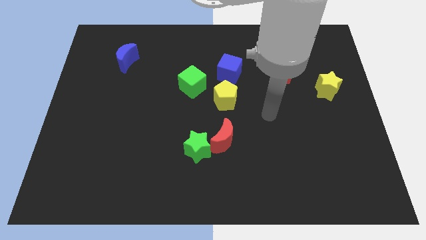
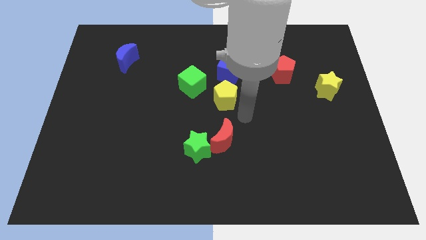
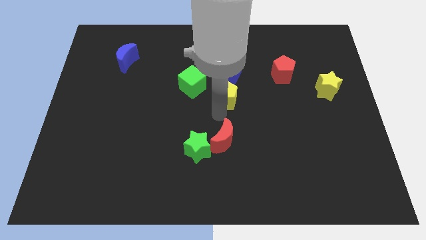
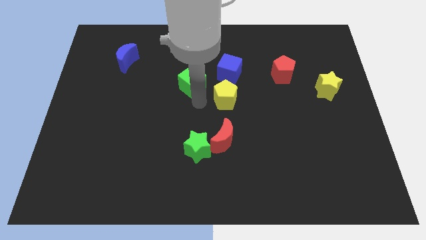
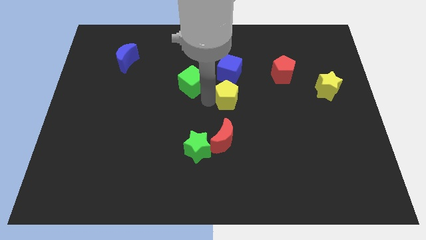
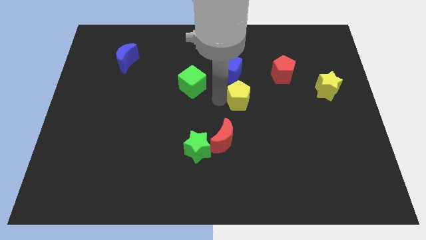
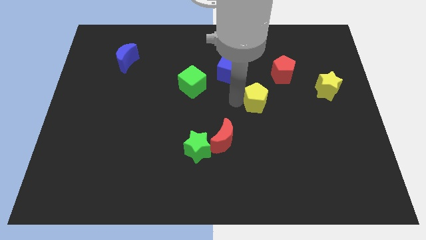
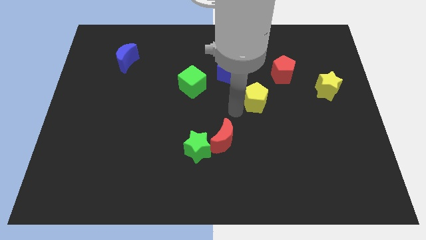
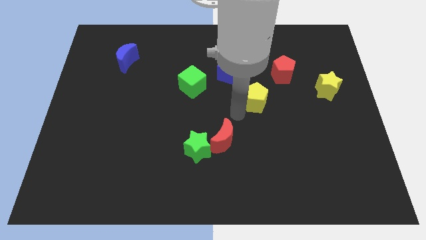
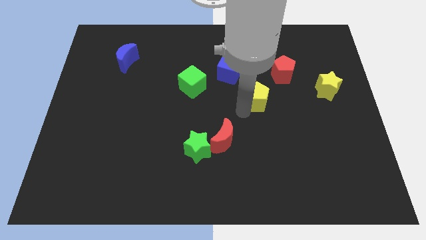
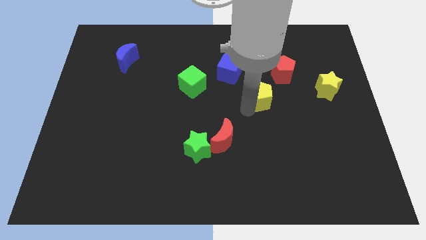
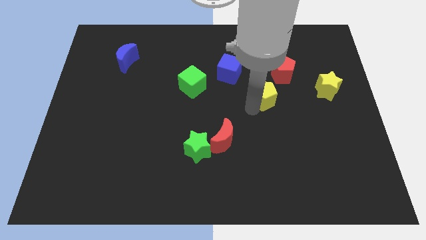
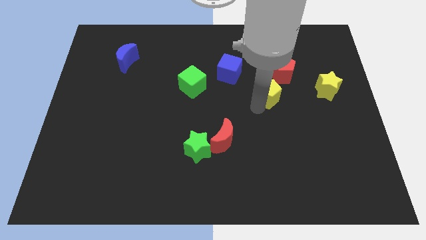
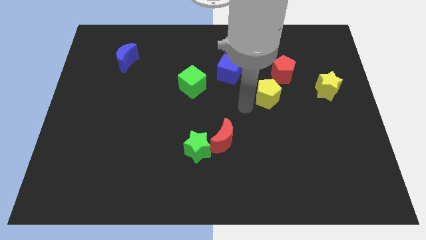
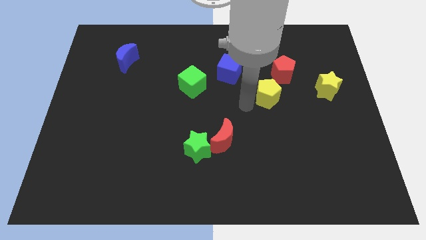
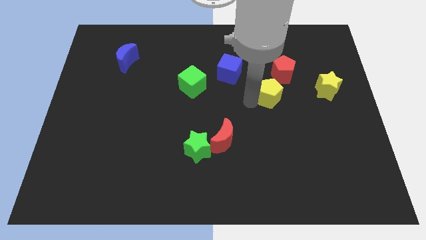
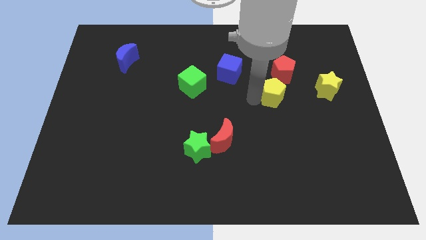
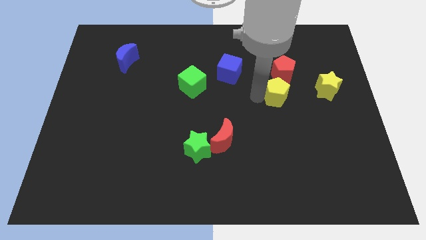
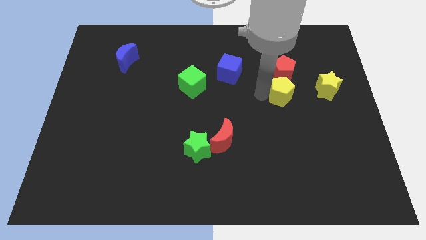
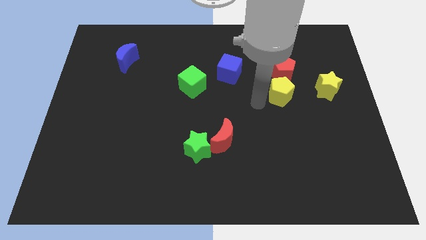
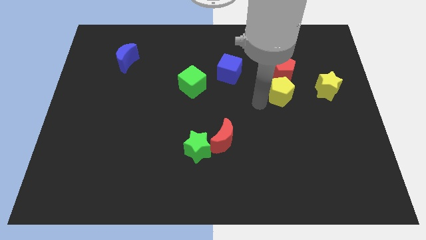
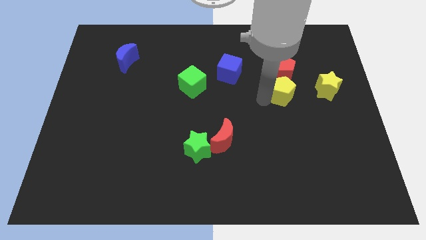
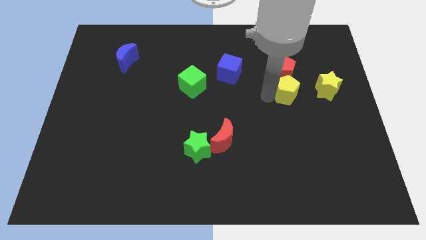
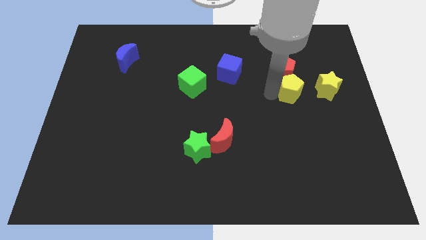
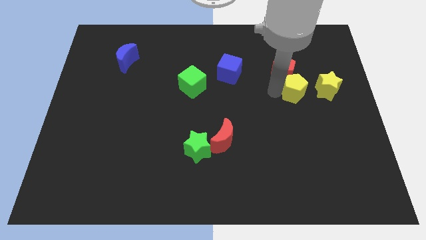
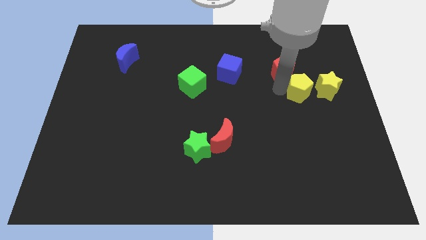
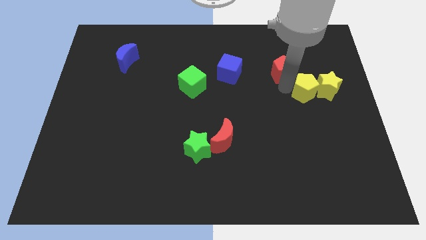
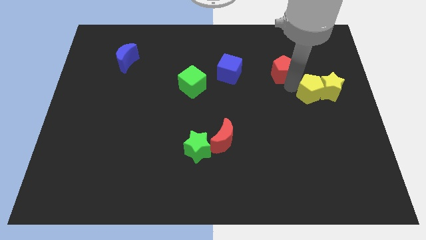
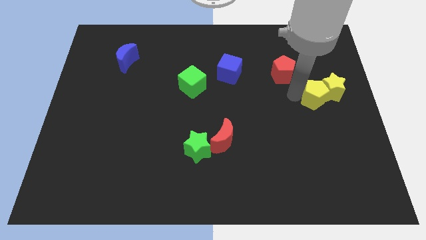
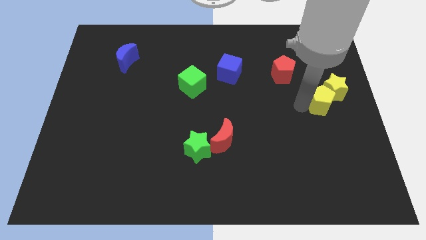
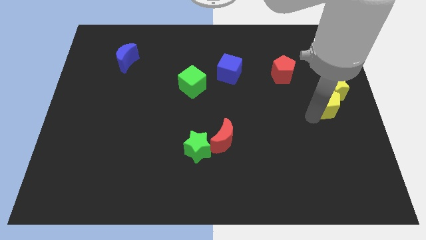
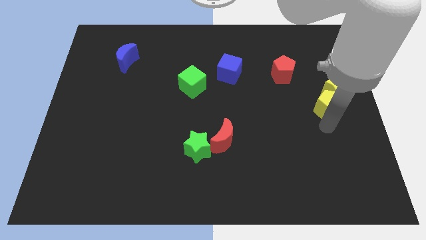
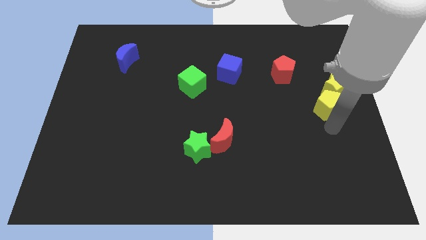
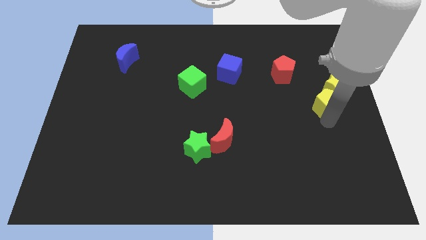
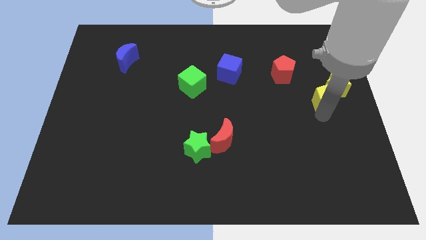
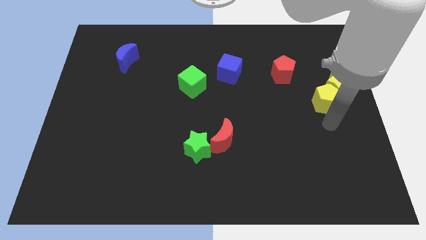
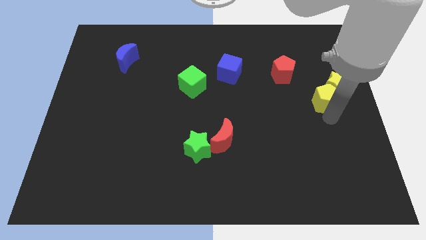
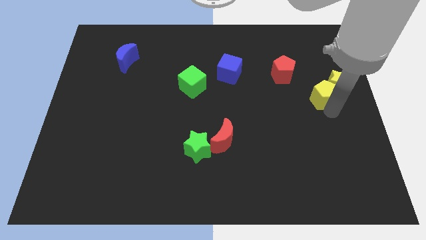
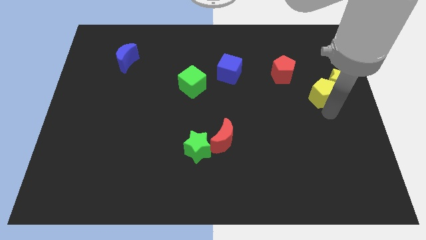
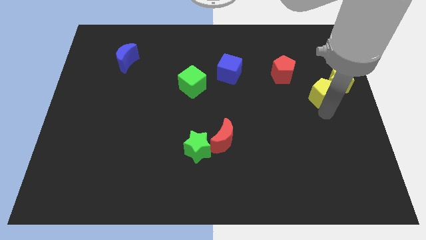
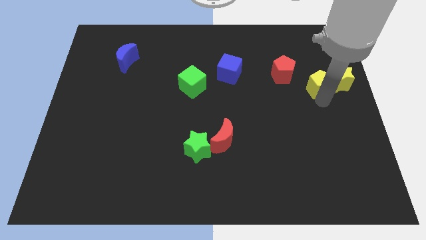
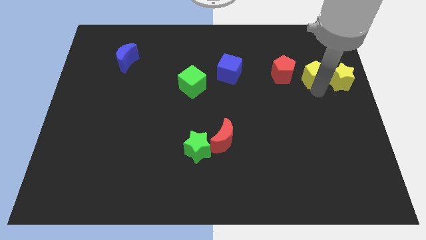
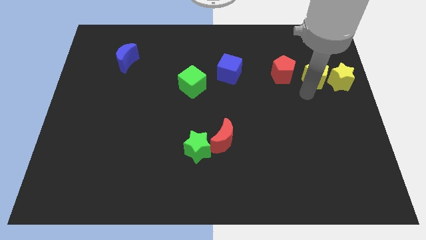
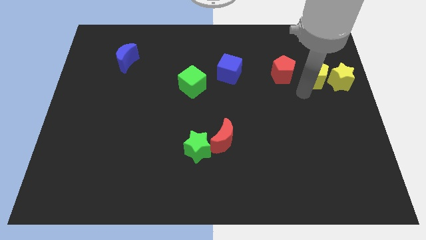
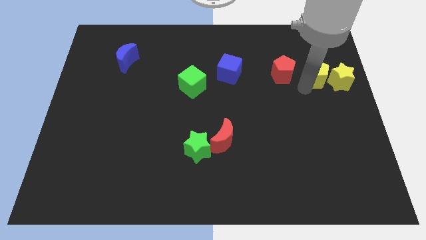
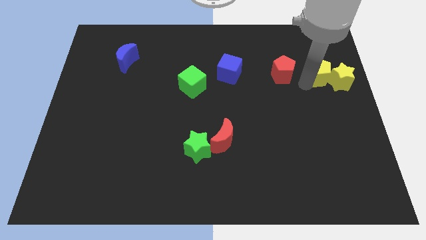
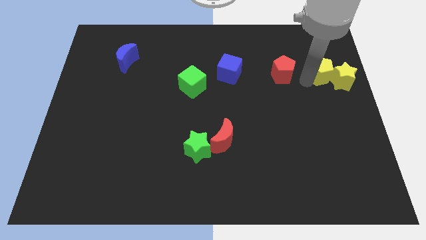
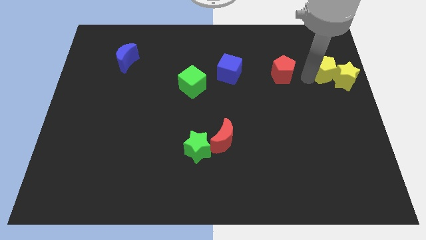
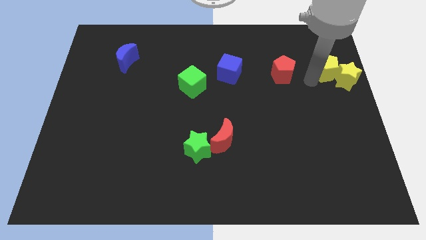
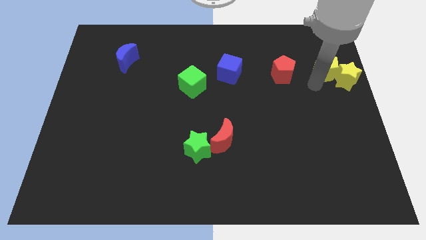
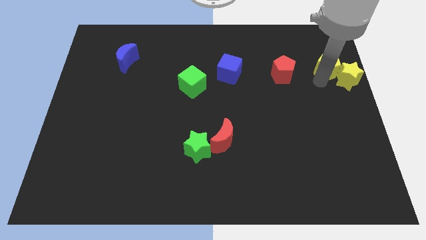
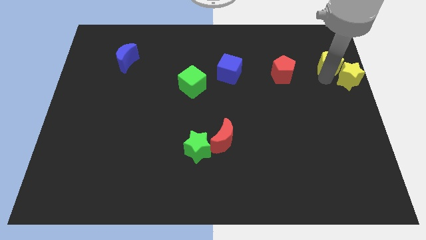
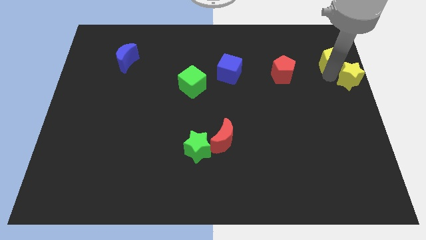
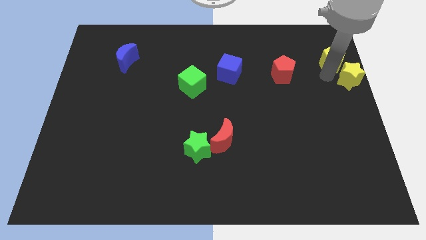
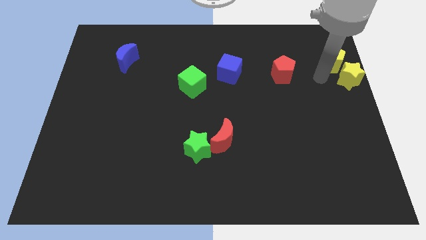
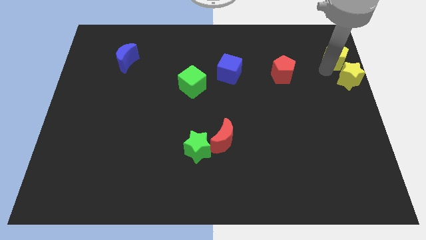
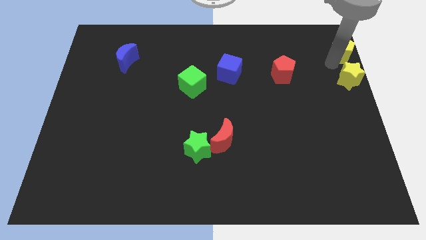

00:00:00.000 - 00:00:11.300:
push the yellow pentagon to the top right corner

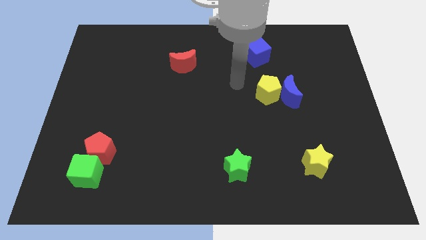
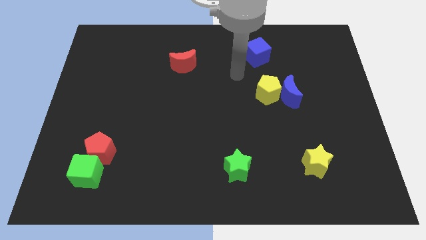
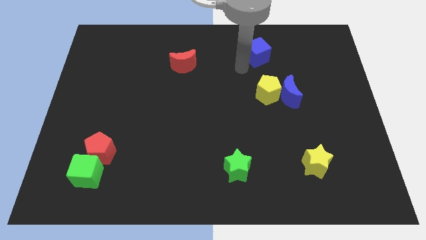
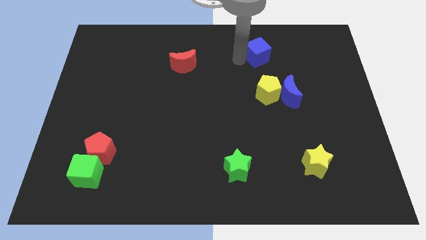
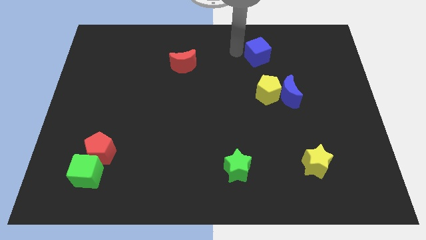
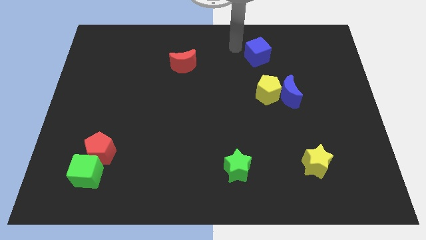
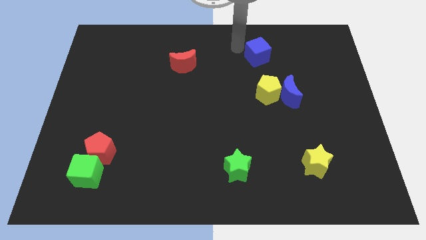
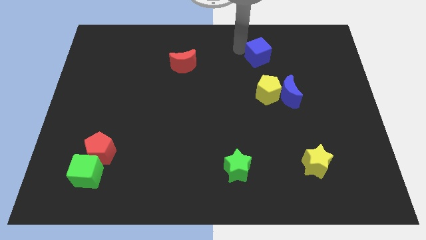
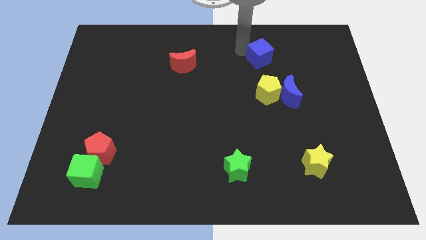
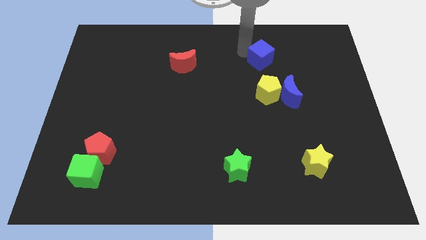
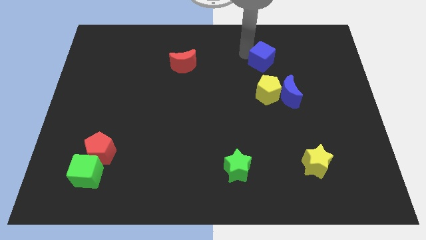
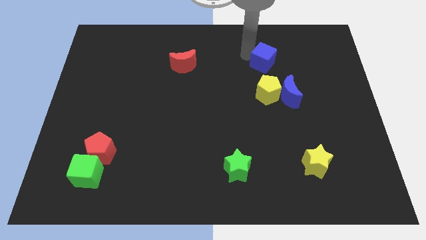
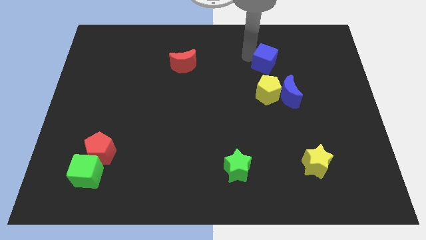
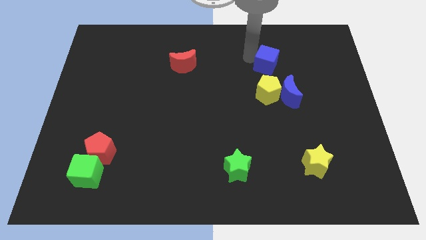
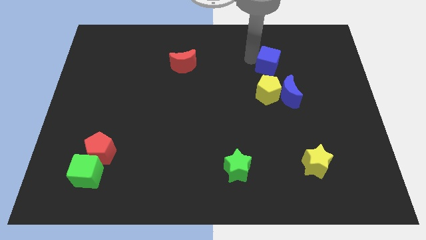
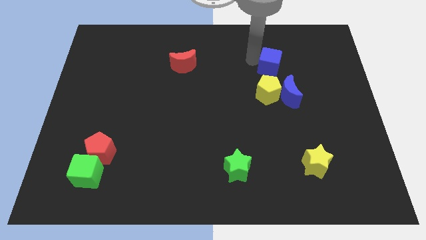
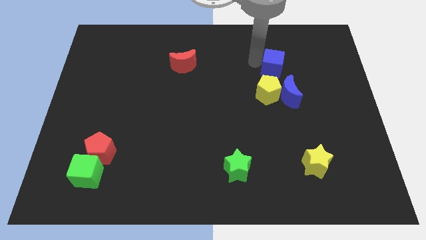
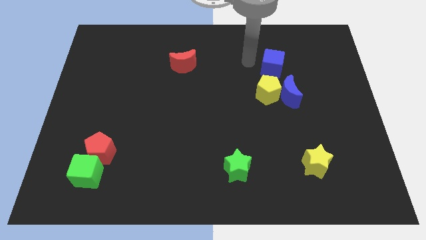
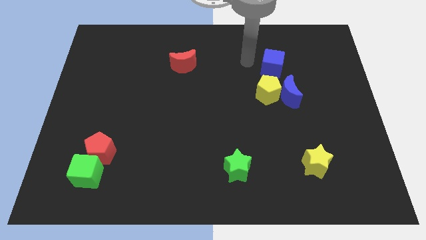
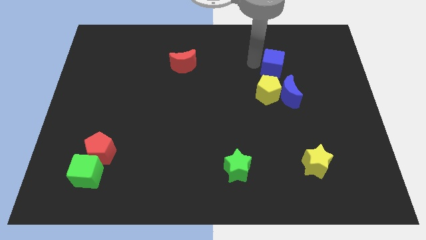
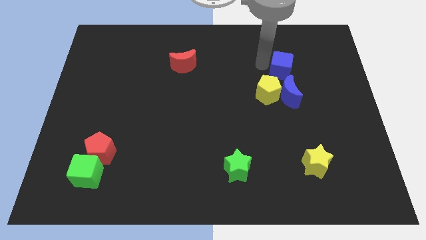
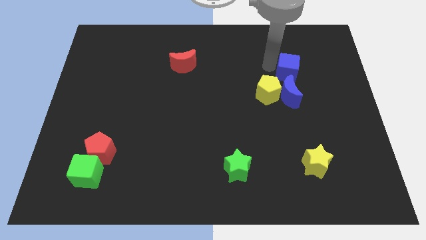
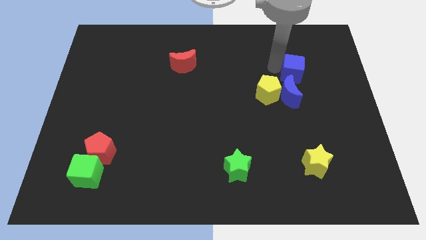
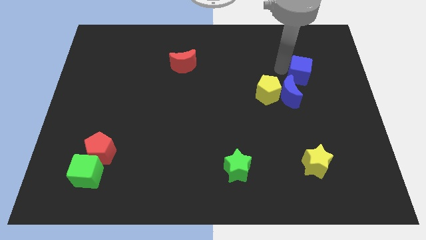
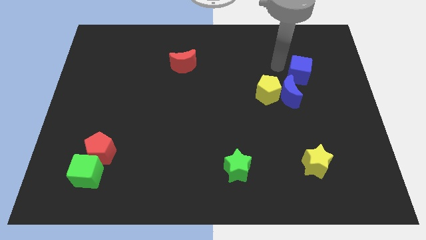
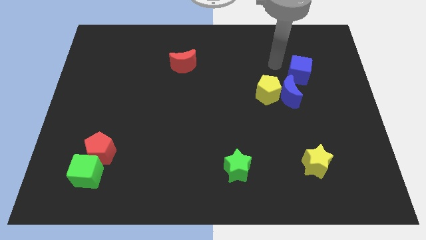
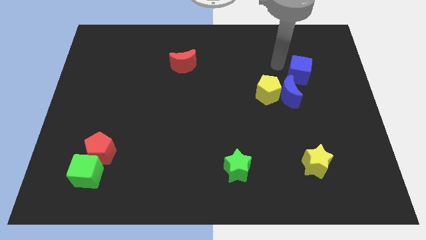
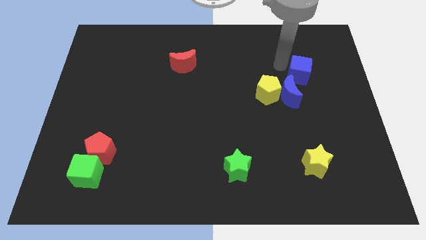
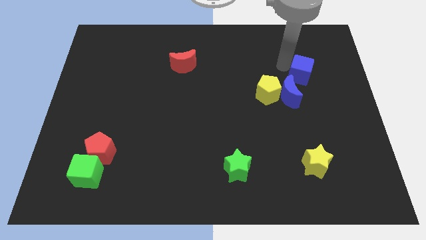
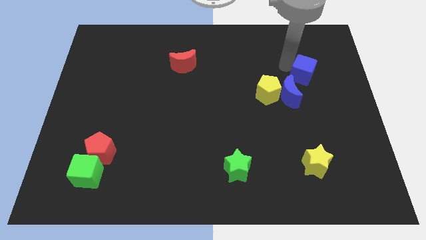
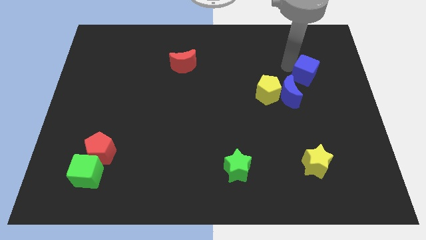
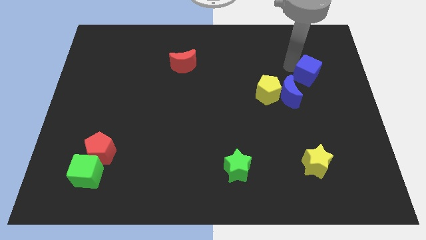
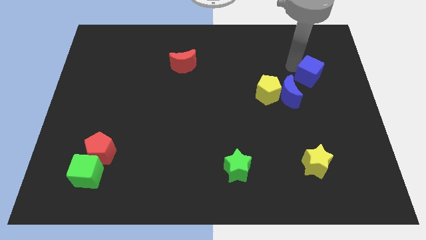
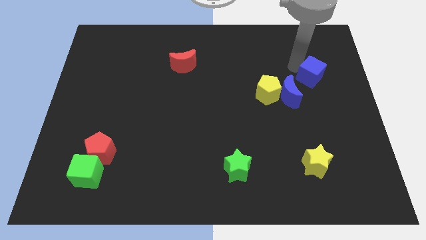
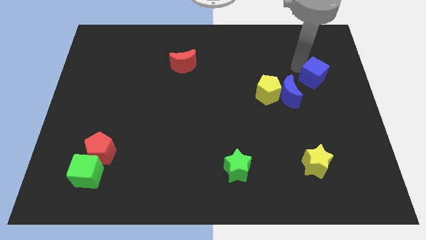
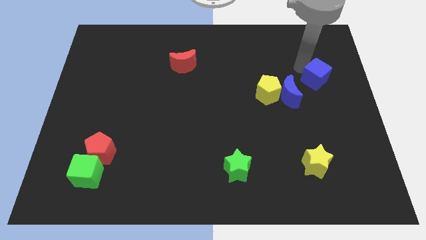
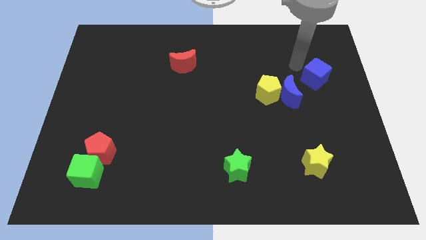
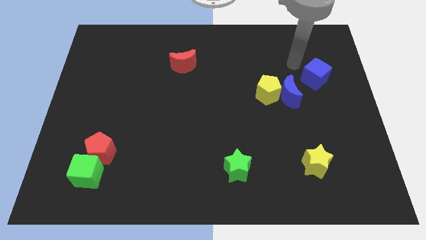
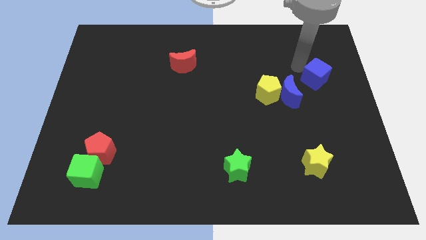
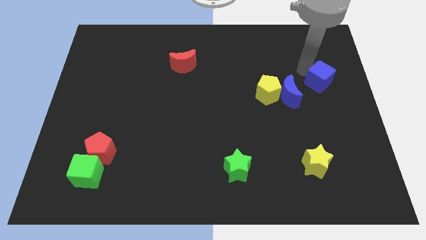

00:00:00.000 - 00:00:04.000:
slide the blue cube to the center right
